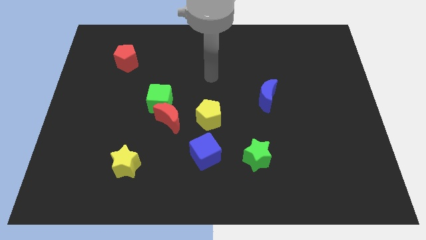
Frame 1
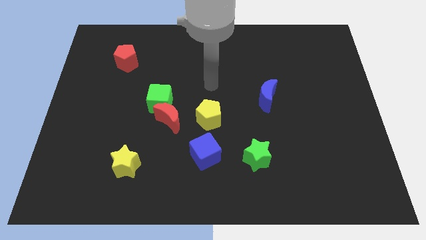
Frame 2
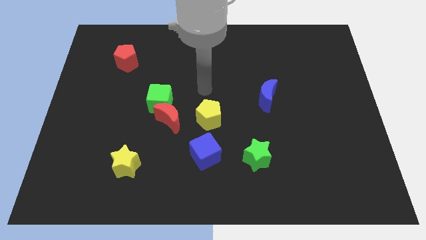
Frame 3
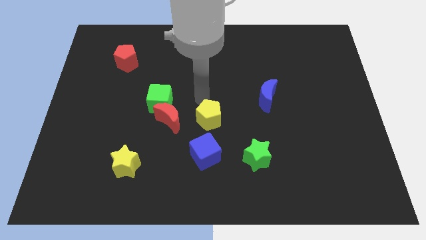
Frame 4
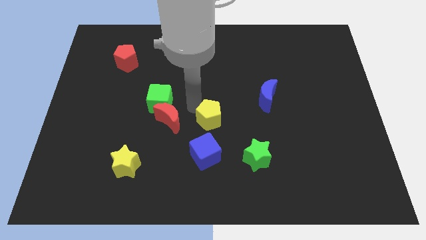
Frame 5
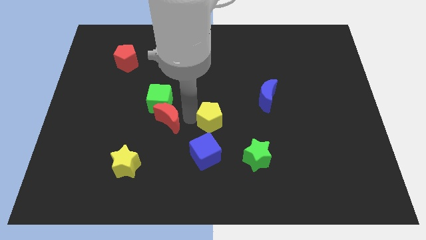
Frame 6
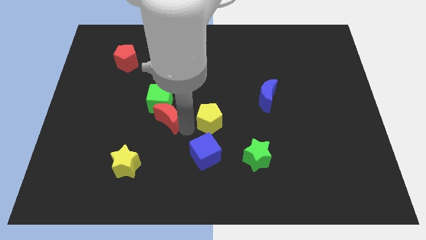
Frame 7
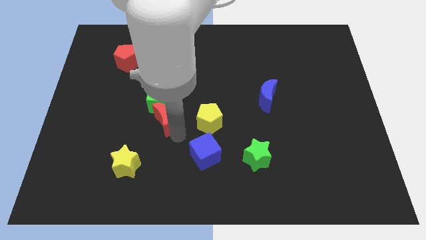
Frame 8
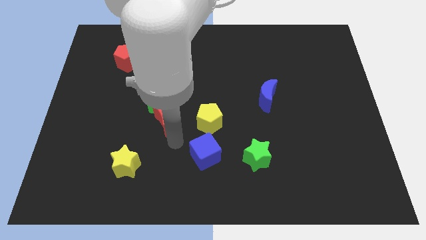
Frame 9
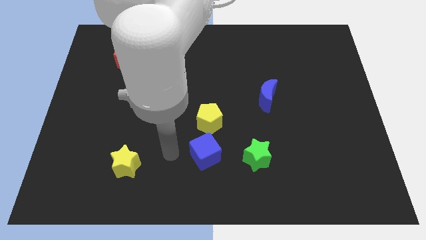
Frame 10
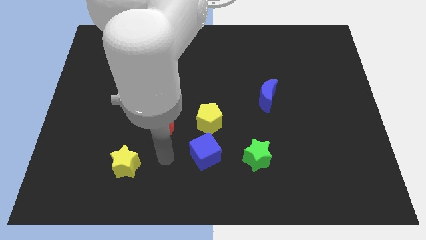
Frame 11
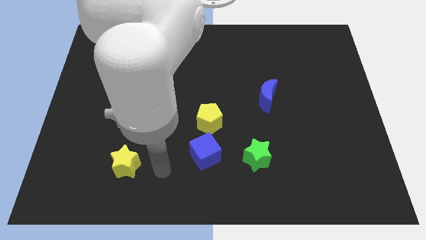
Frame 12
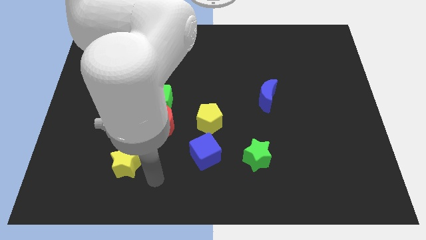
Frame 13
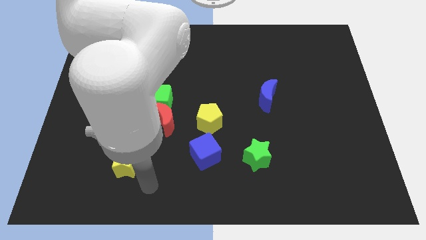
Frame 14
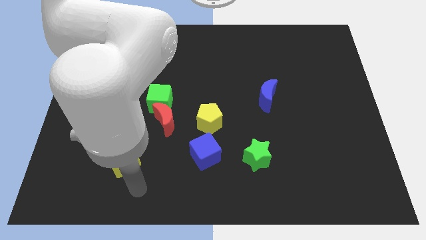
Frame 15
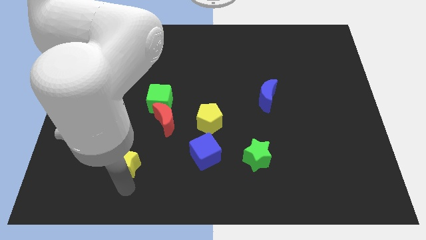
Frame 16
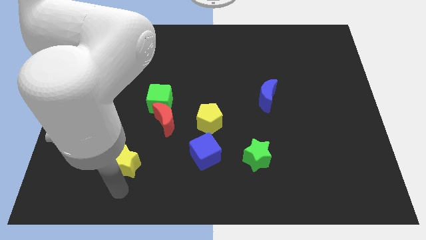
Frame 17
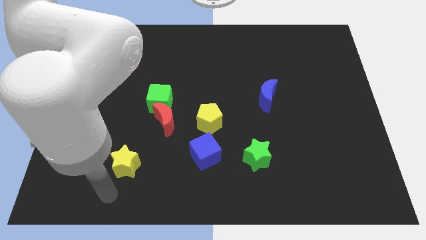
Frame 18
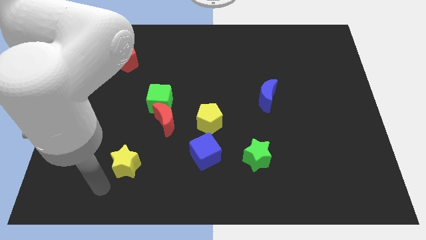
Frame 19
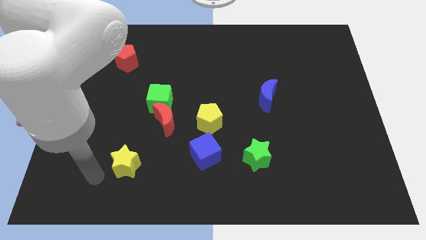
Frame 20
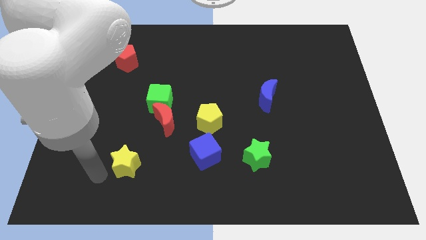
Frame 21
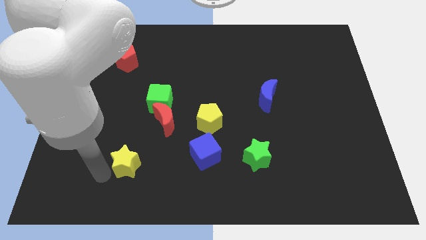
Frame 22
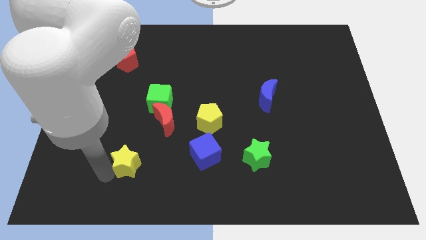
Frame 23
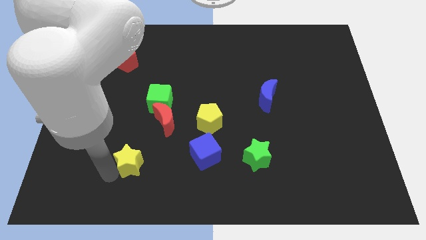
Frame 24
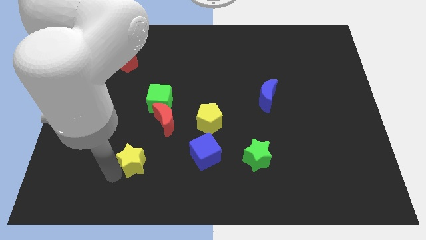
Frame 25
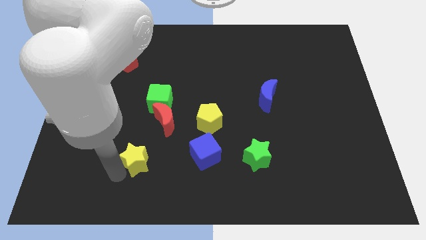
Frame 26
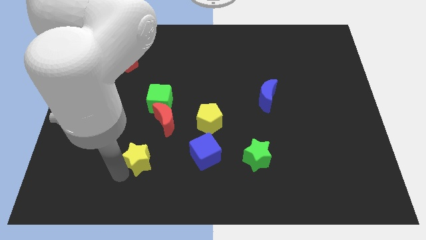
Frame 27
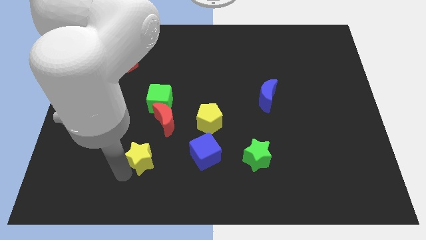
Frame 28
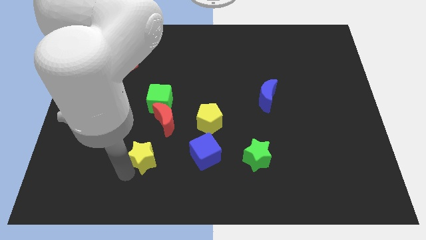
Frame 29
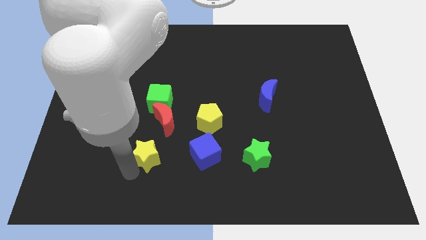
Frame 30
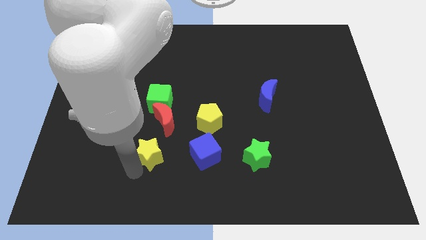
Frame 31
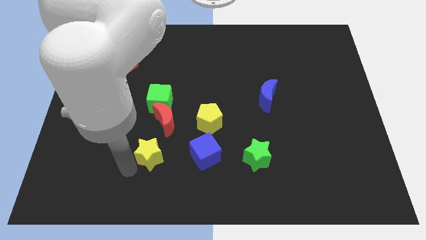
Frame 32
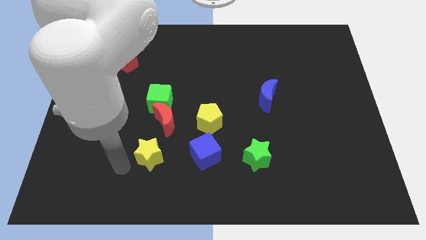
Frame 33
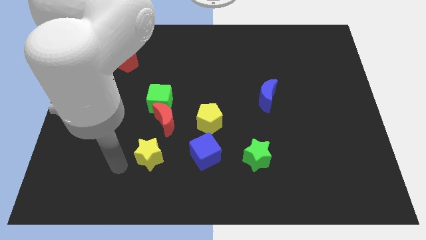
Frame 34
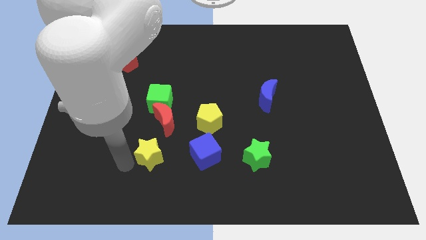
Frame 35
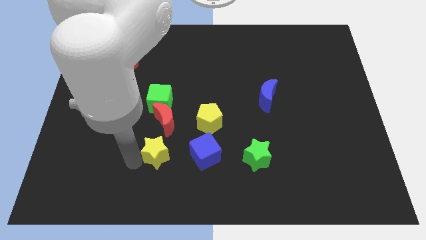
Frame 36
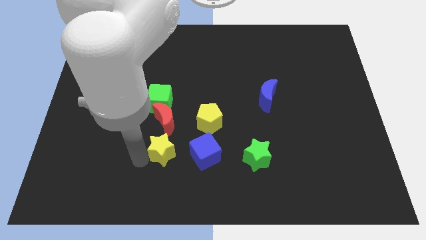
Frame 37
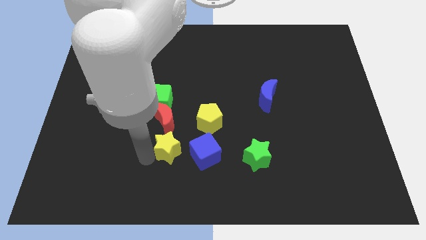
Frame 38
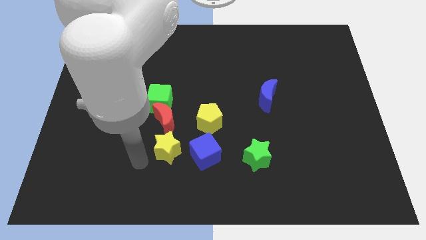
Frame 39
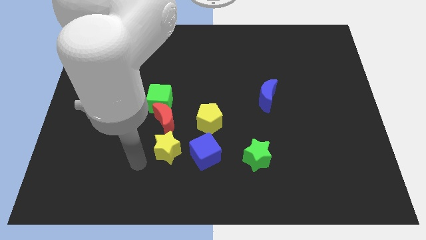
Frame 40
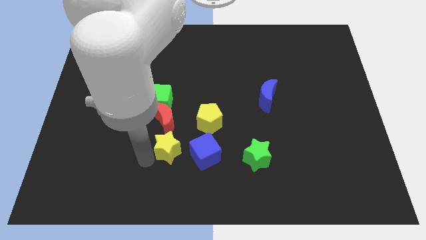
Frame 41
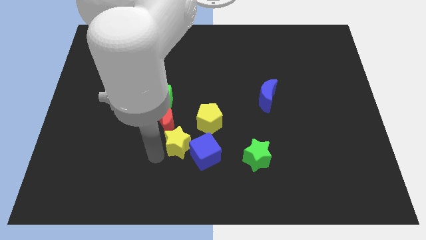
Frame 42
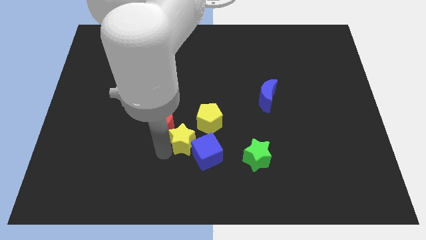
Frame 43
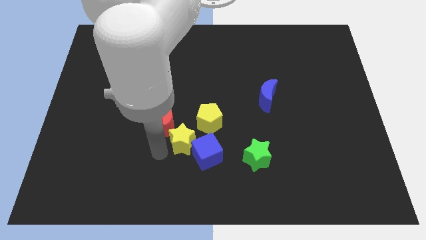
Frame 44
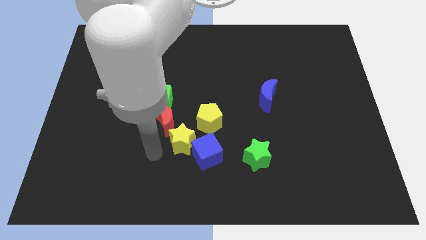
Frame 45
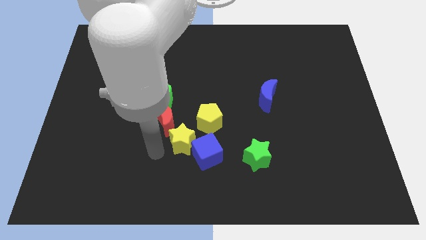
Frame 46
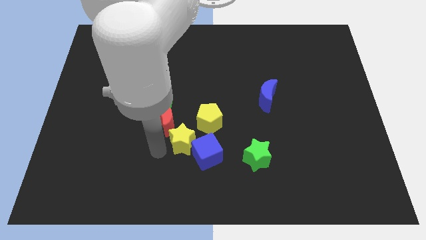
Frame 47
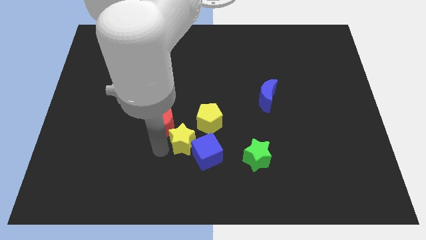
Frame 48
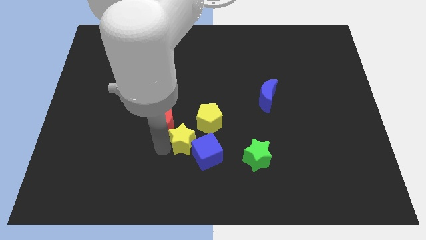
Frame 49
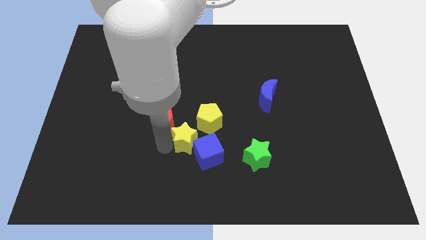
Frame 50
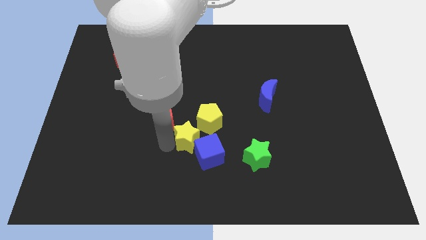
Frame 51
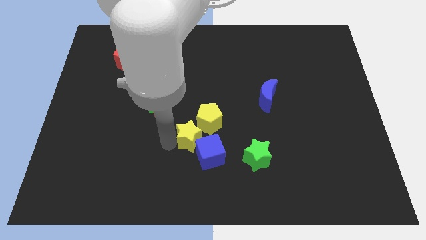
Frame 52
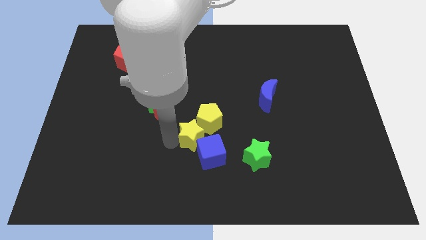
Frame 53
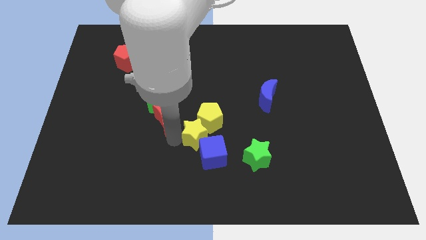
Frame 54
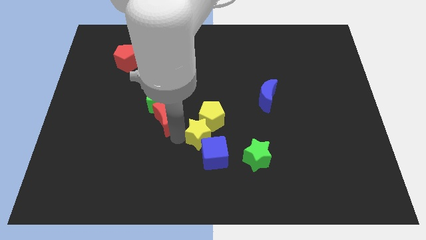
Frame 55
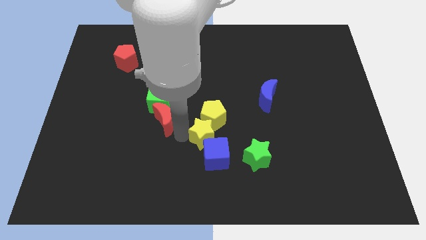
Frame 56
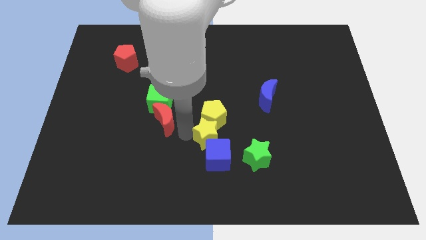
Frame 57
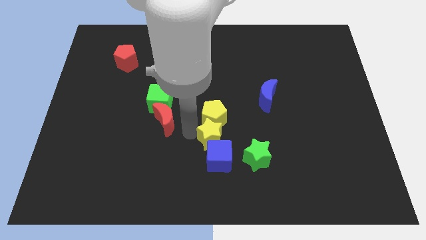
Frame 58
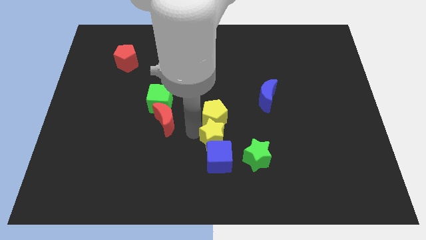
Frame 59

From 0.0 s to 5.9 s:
put the yellow star diagonally up and to the right of the blue cube
